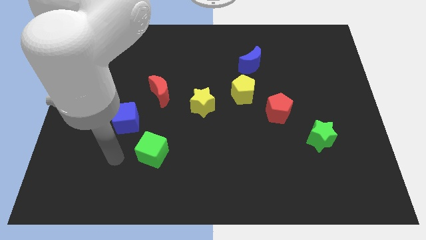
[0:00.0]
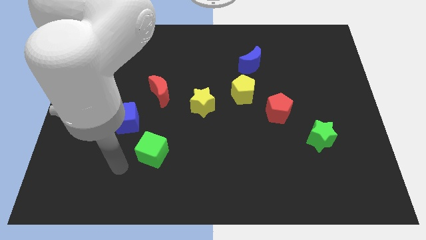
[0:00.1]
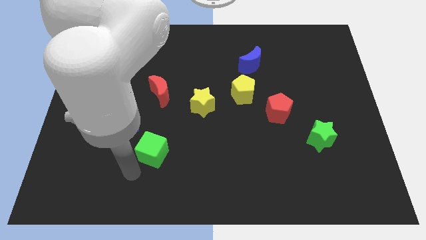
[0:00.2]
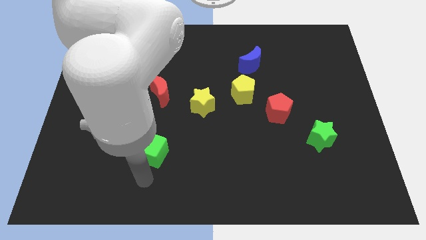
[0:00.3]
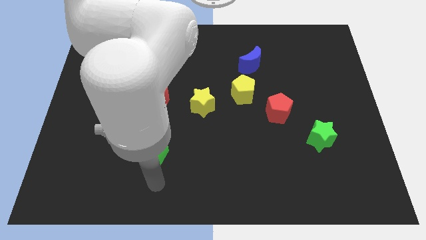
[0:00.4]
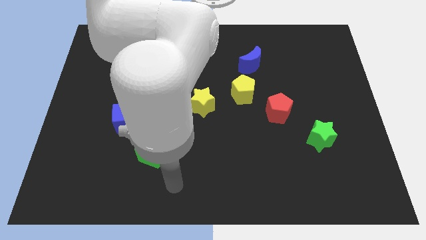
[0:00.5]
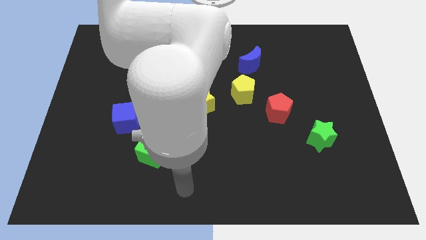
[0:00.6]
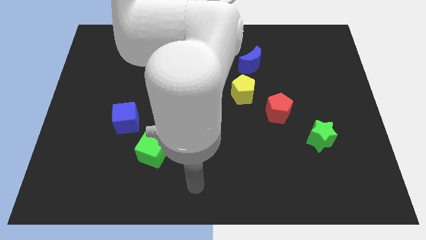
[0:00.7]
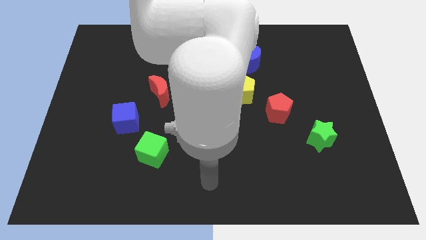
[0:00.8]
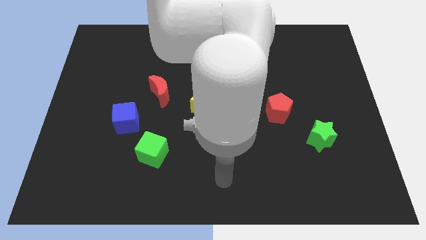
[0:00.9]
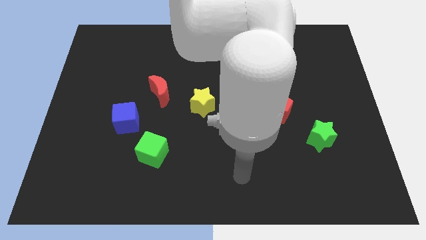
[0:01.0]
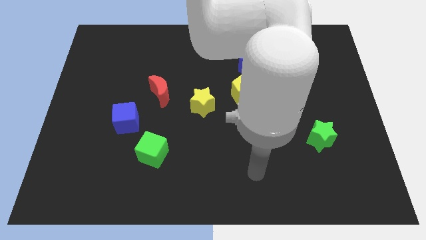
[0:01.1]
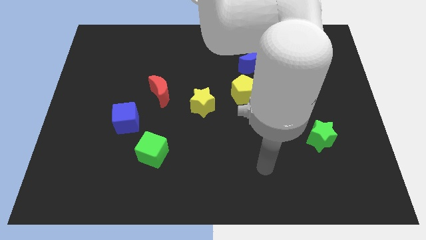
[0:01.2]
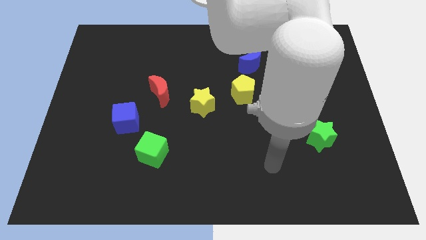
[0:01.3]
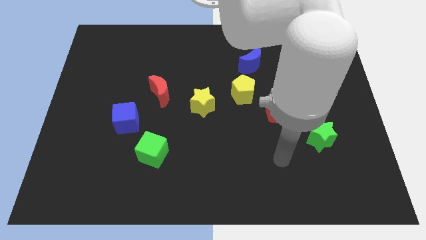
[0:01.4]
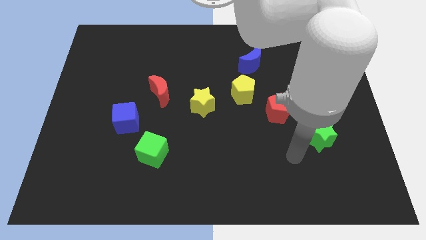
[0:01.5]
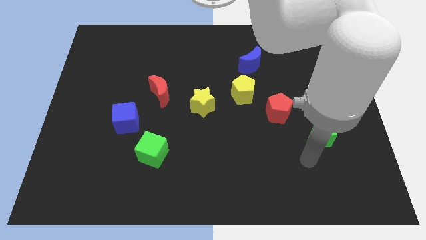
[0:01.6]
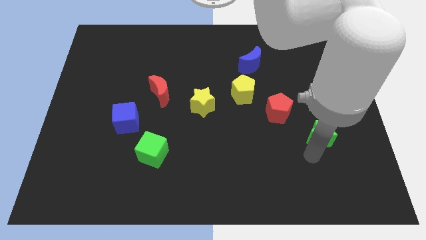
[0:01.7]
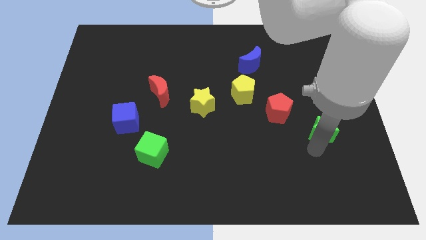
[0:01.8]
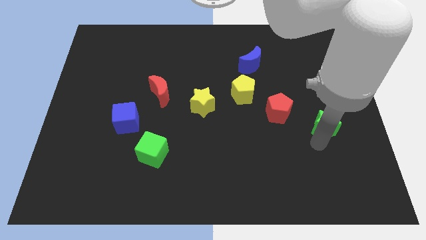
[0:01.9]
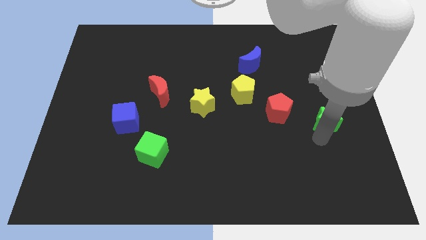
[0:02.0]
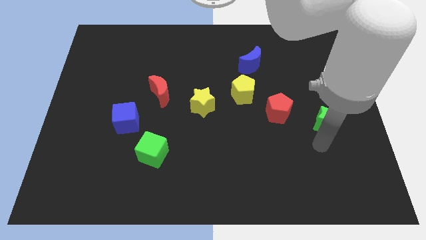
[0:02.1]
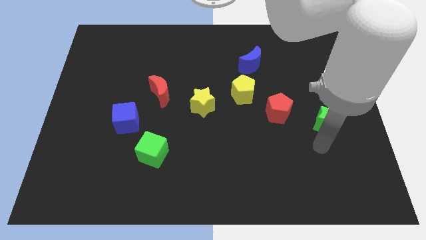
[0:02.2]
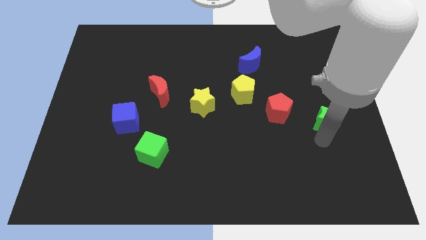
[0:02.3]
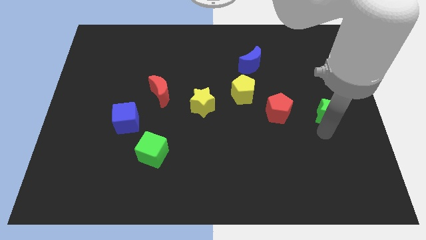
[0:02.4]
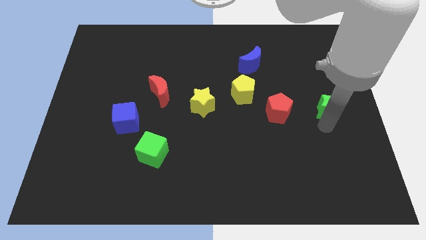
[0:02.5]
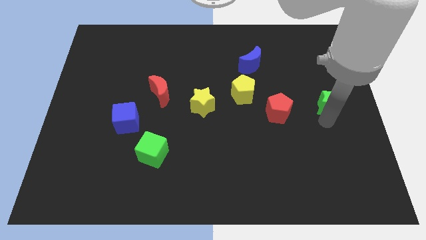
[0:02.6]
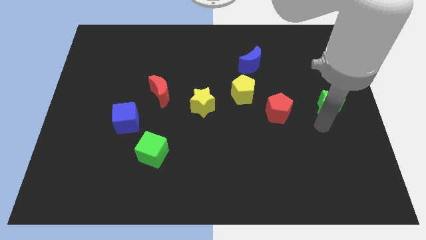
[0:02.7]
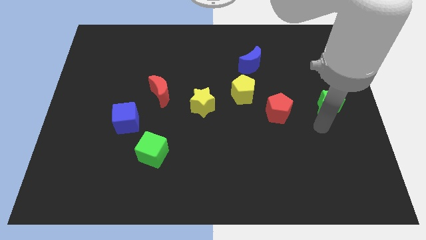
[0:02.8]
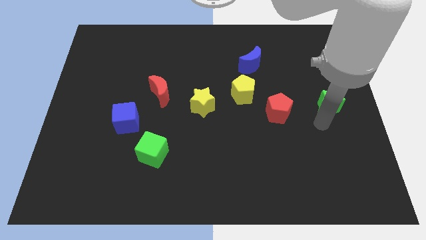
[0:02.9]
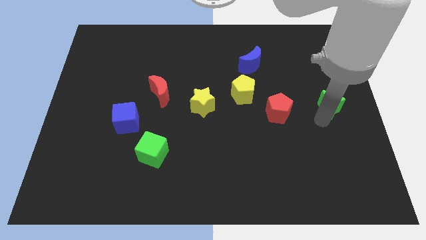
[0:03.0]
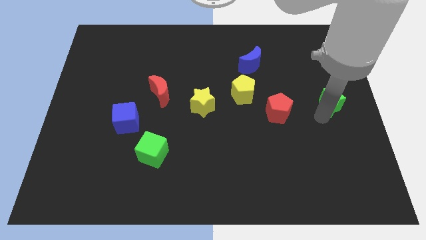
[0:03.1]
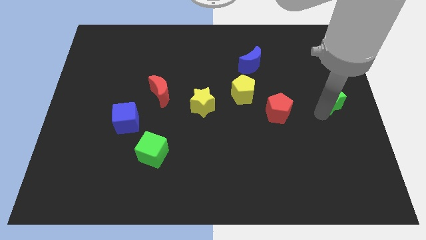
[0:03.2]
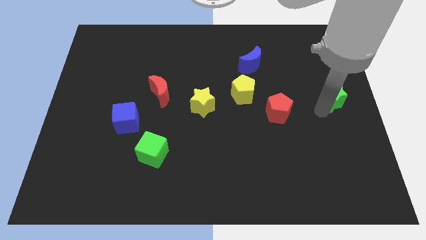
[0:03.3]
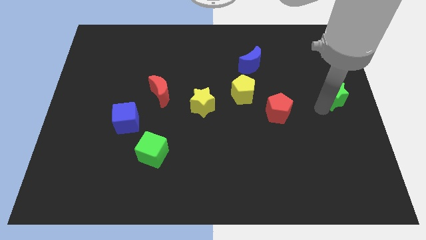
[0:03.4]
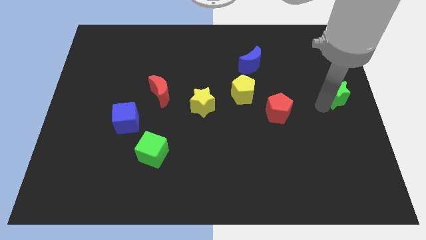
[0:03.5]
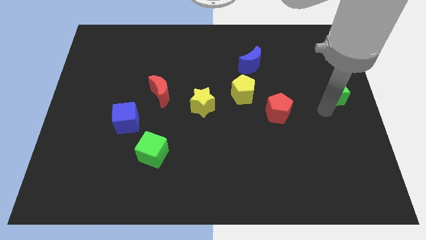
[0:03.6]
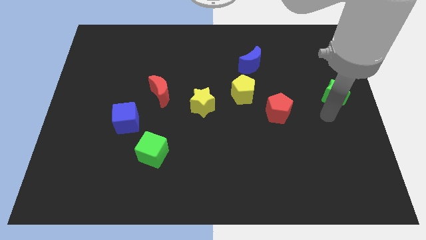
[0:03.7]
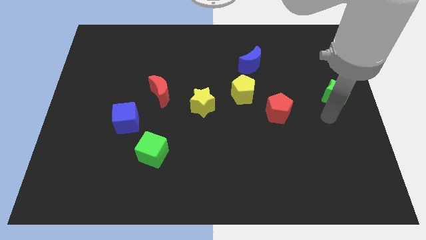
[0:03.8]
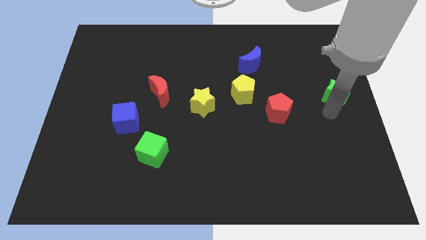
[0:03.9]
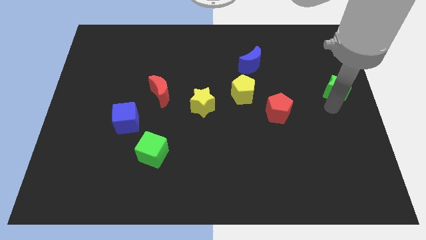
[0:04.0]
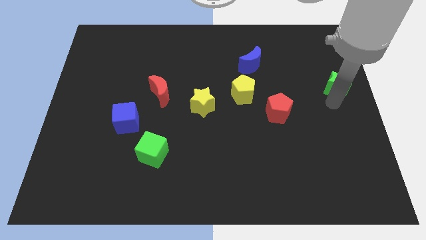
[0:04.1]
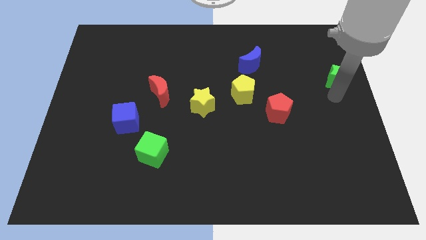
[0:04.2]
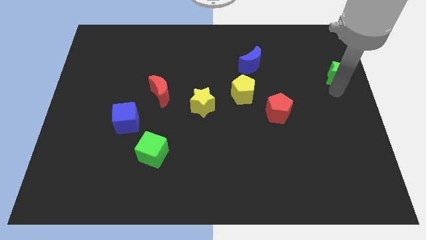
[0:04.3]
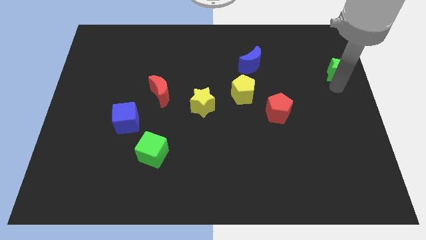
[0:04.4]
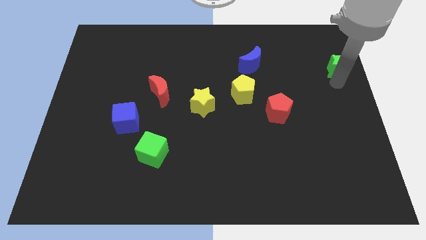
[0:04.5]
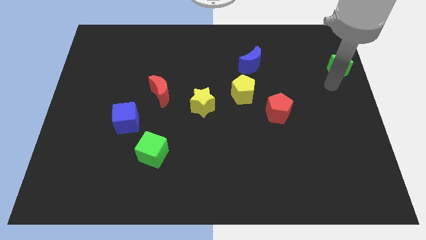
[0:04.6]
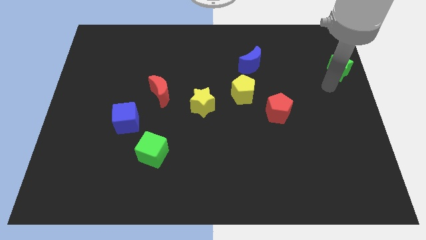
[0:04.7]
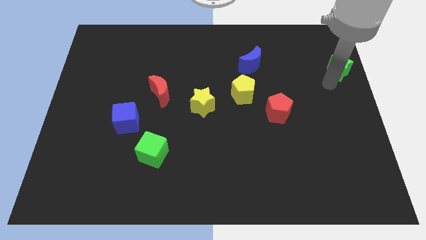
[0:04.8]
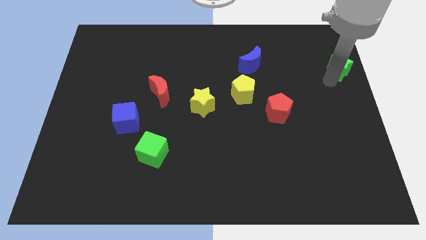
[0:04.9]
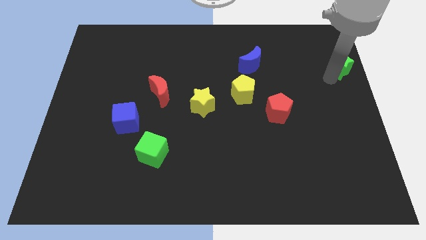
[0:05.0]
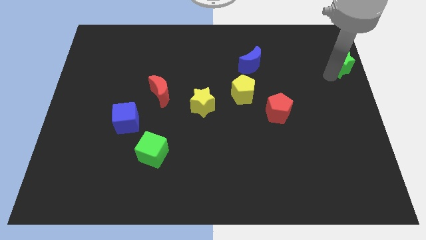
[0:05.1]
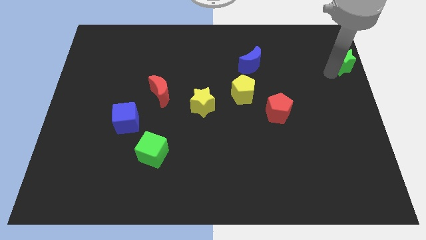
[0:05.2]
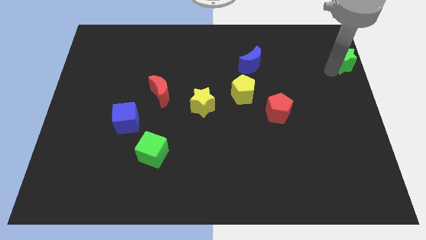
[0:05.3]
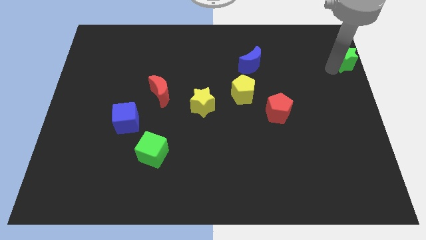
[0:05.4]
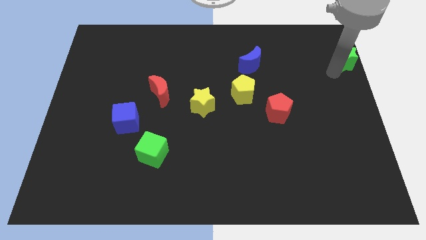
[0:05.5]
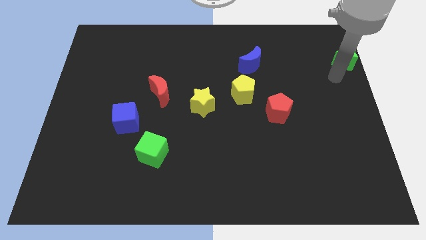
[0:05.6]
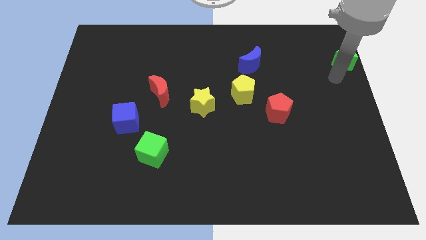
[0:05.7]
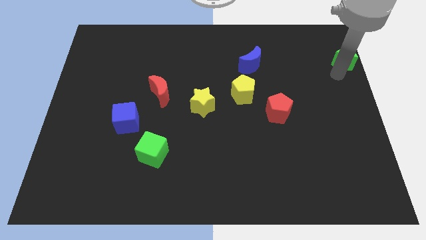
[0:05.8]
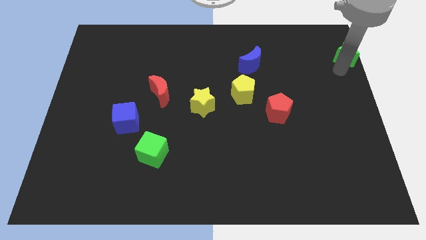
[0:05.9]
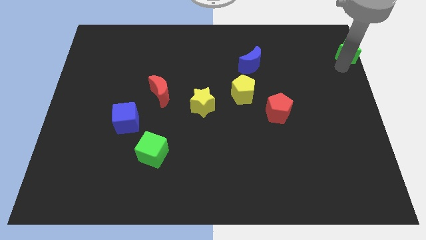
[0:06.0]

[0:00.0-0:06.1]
push the green star to the top right

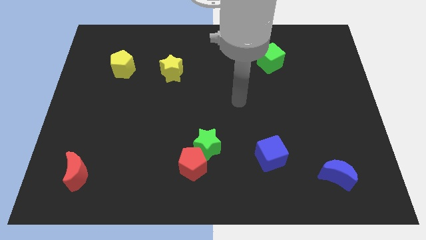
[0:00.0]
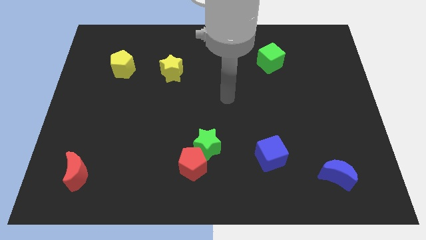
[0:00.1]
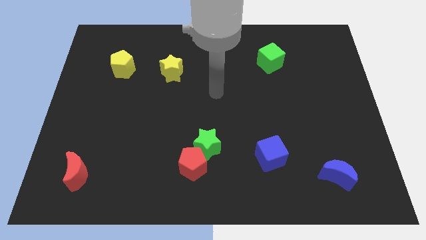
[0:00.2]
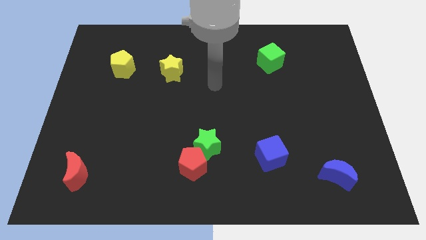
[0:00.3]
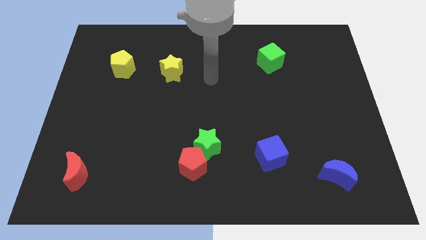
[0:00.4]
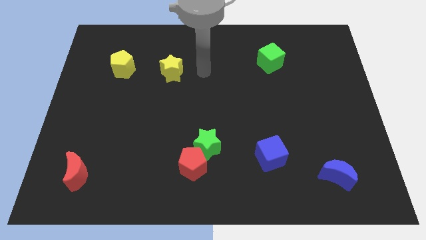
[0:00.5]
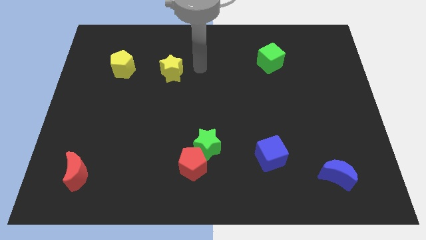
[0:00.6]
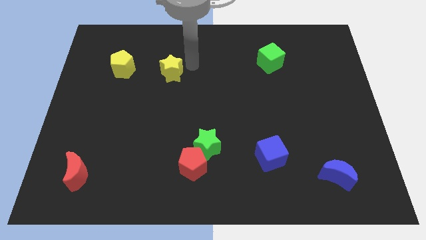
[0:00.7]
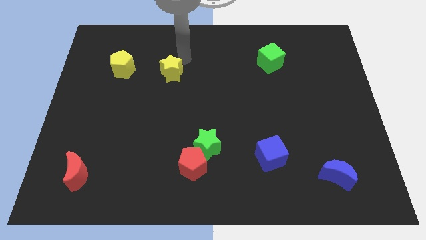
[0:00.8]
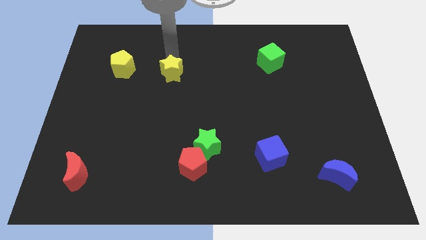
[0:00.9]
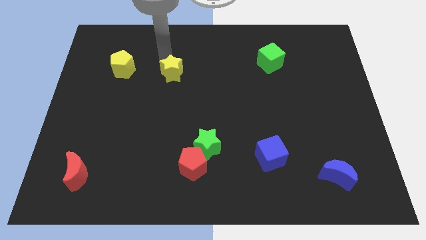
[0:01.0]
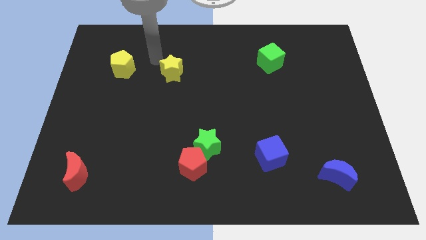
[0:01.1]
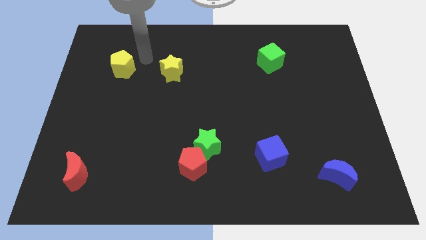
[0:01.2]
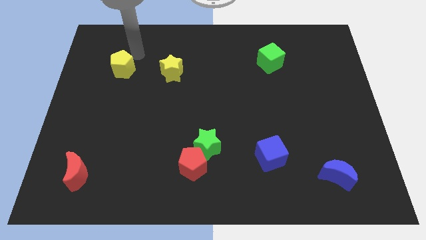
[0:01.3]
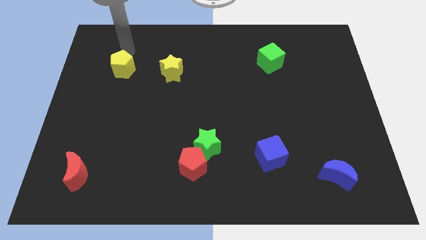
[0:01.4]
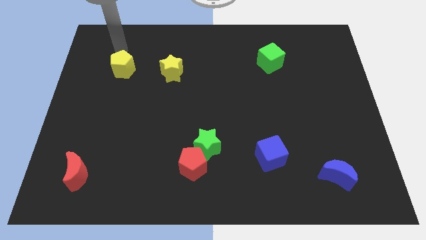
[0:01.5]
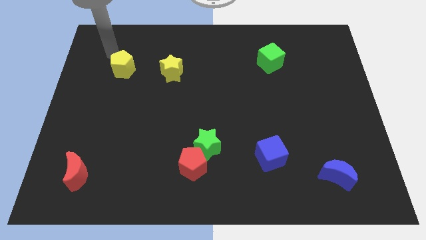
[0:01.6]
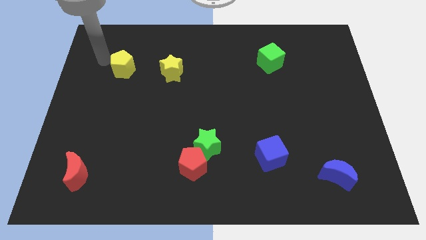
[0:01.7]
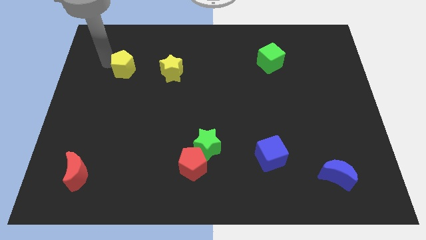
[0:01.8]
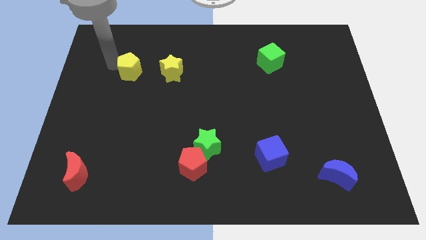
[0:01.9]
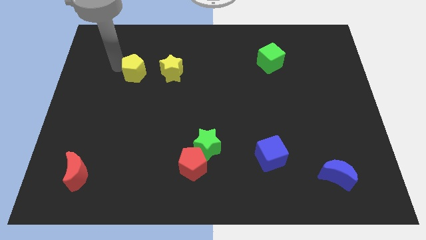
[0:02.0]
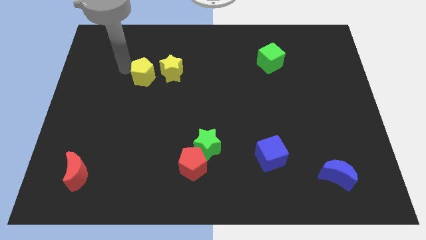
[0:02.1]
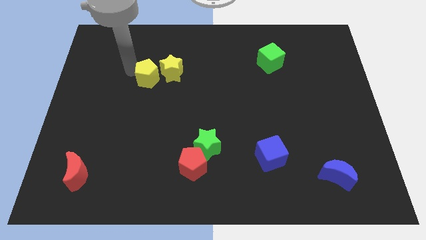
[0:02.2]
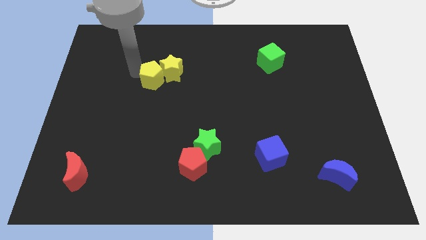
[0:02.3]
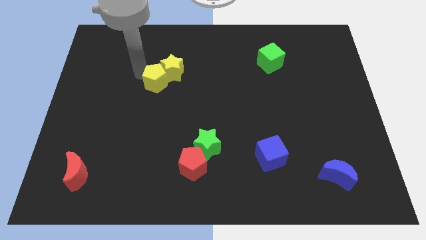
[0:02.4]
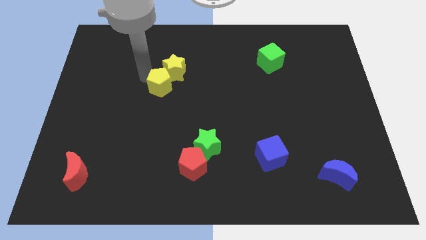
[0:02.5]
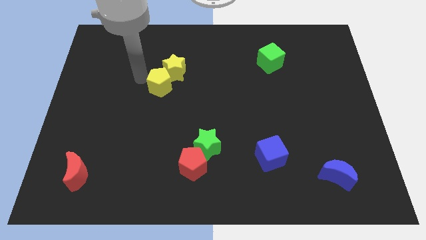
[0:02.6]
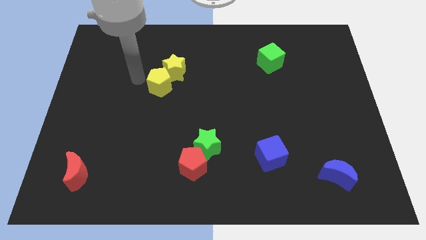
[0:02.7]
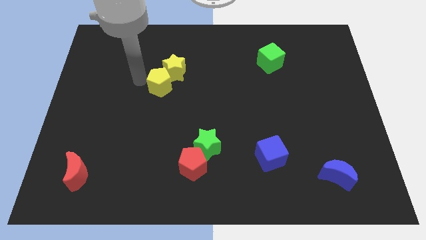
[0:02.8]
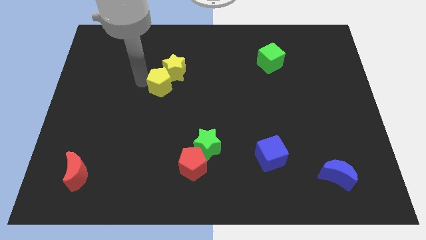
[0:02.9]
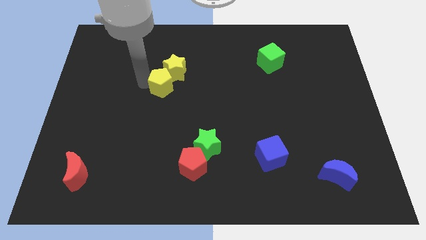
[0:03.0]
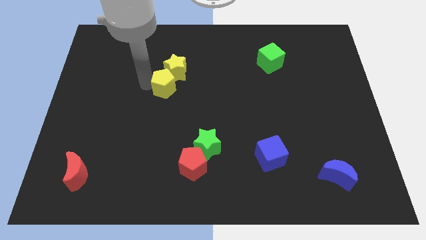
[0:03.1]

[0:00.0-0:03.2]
push the yellow pentagon to the middle
